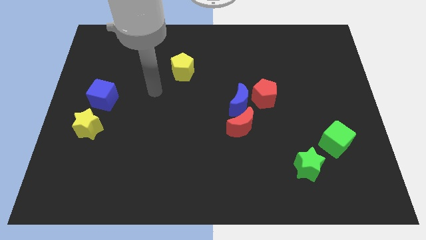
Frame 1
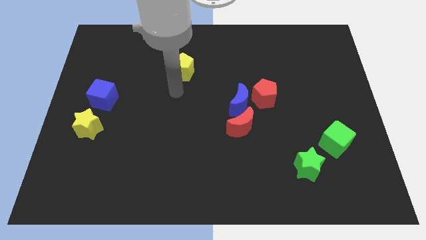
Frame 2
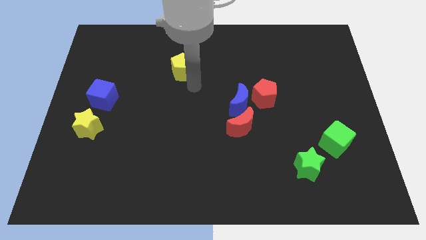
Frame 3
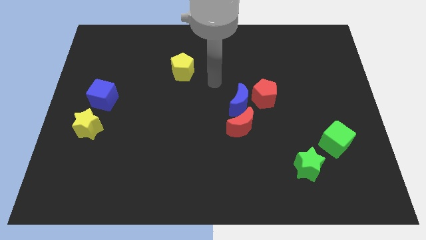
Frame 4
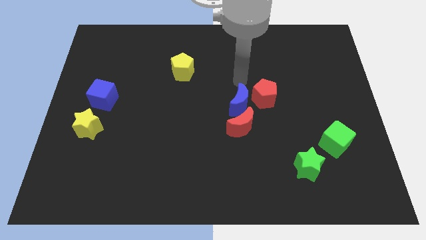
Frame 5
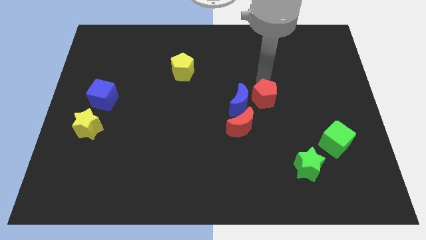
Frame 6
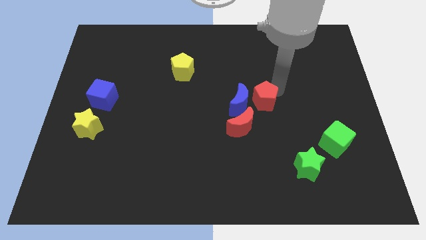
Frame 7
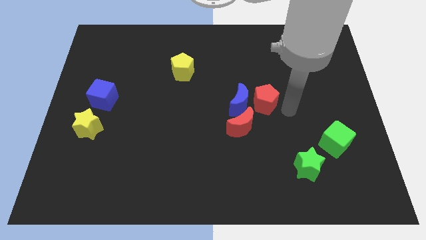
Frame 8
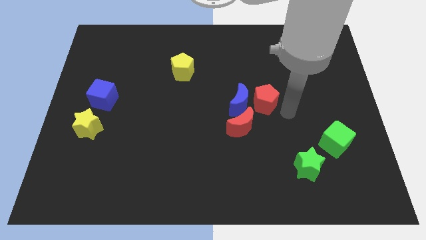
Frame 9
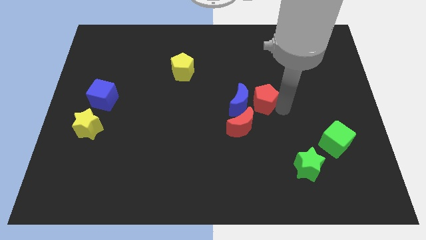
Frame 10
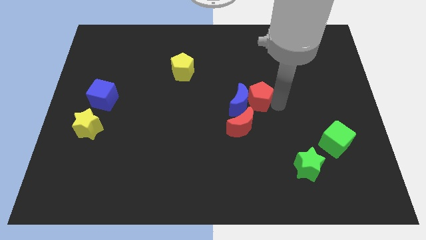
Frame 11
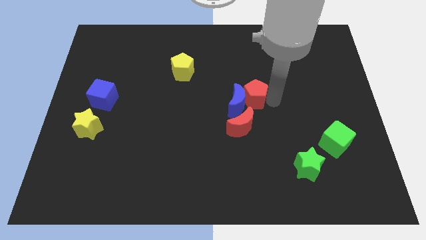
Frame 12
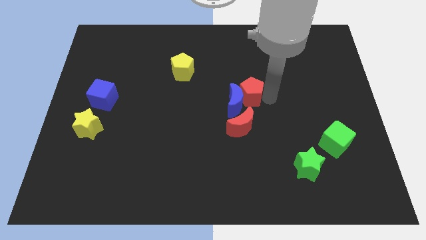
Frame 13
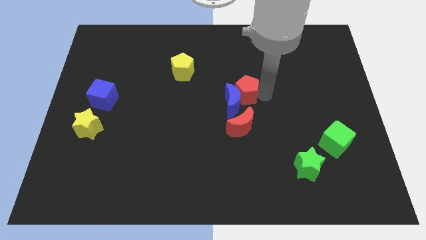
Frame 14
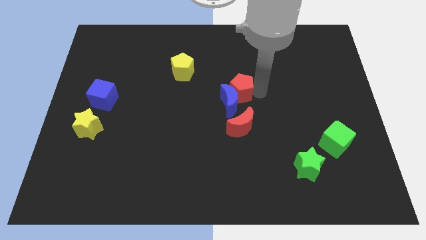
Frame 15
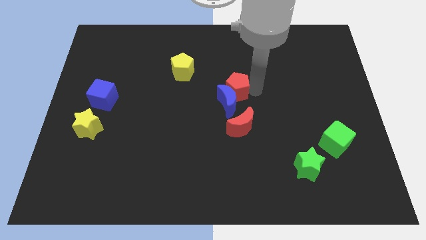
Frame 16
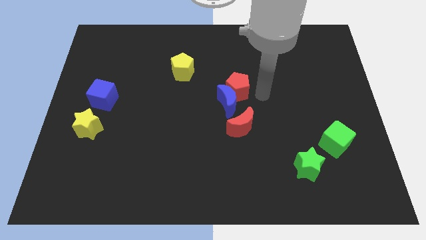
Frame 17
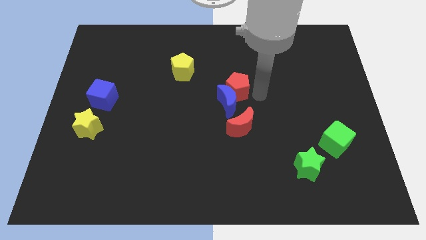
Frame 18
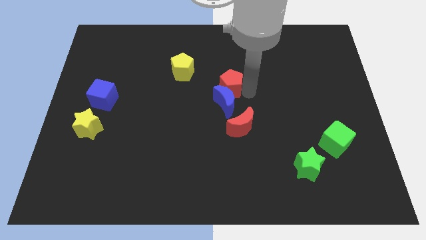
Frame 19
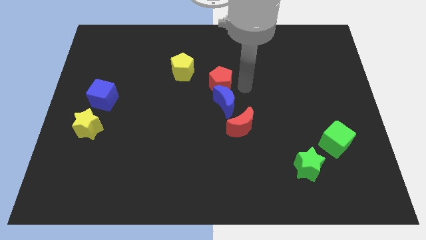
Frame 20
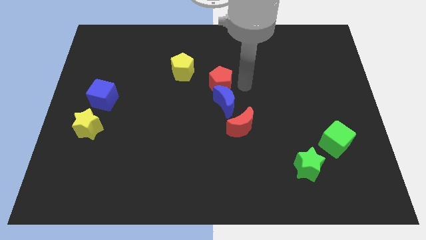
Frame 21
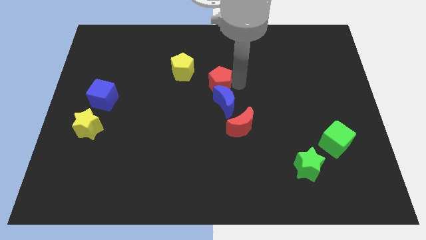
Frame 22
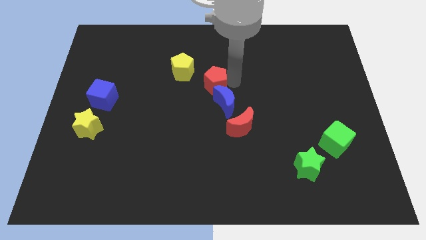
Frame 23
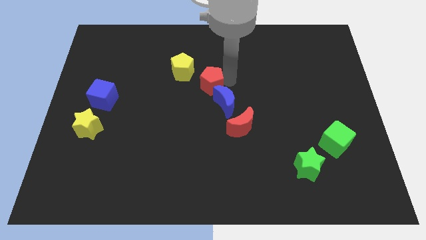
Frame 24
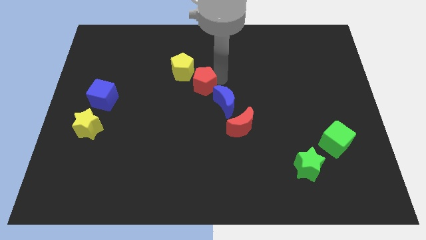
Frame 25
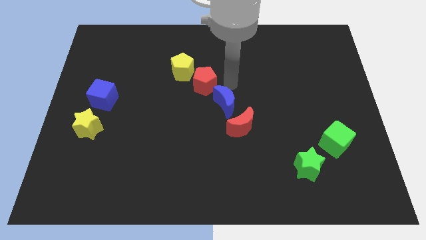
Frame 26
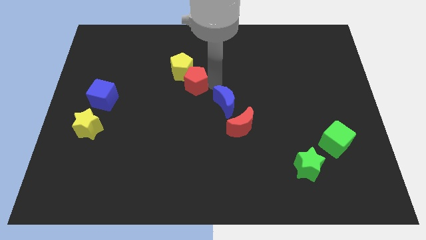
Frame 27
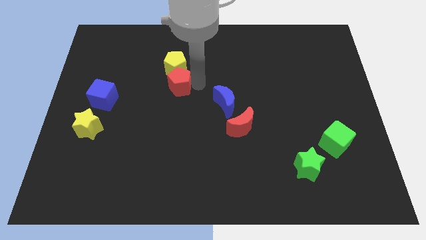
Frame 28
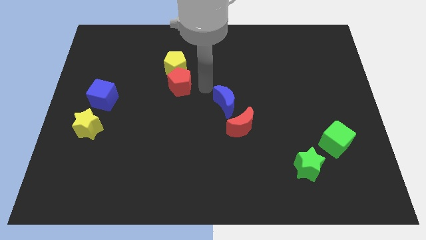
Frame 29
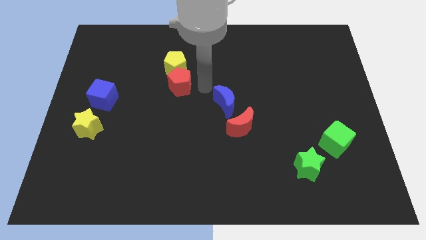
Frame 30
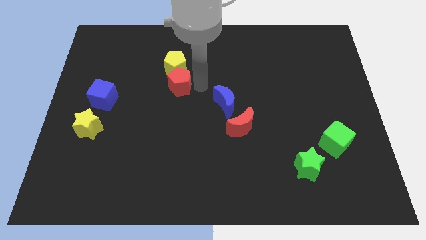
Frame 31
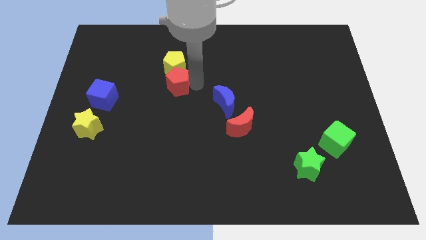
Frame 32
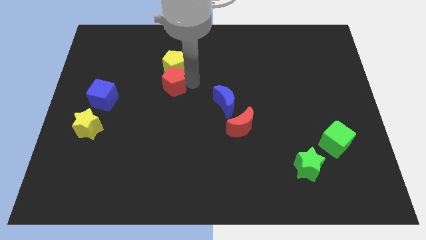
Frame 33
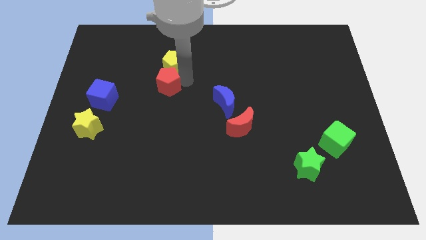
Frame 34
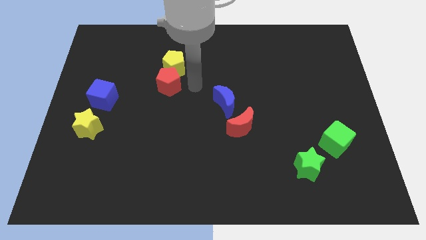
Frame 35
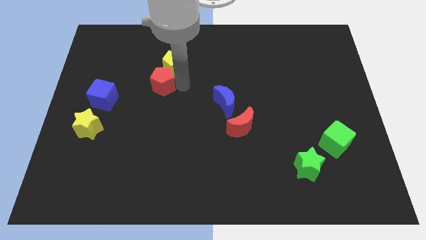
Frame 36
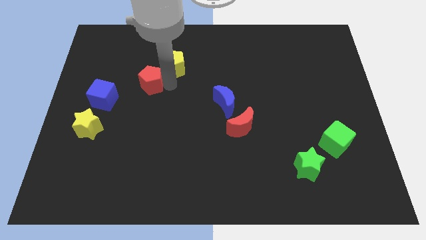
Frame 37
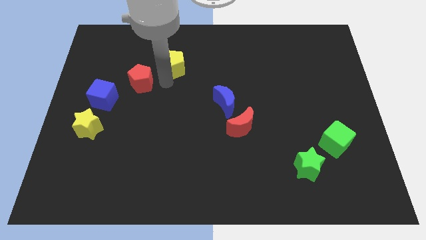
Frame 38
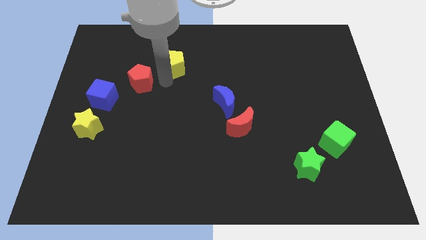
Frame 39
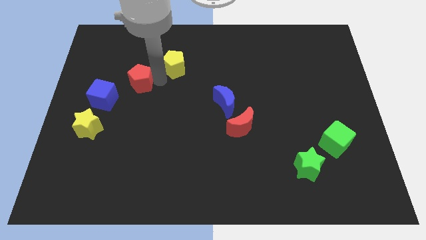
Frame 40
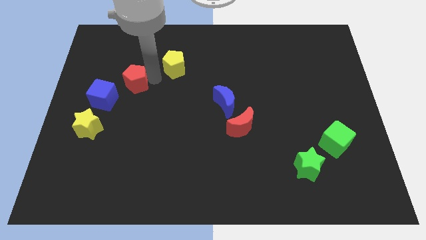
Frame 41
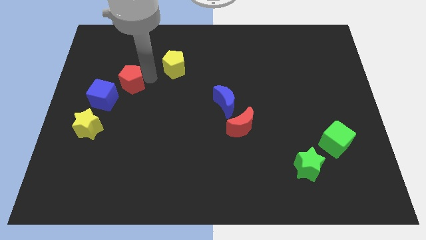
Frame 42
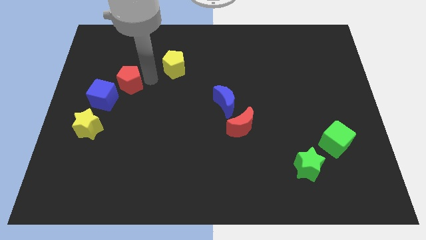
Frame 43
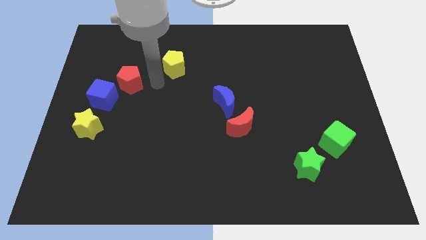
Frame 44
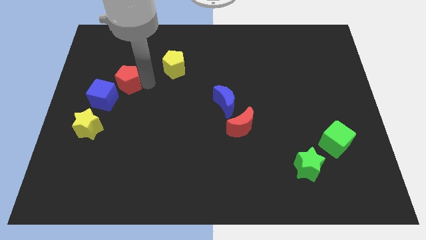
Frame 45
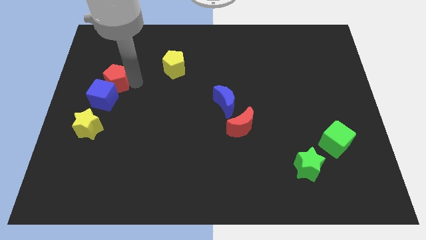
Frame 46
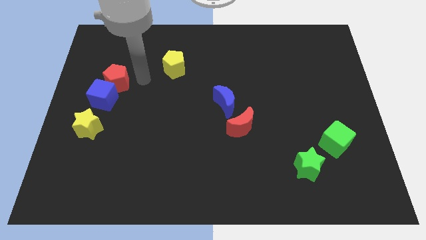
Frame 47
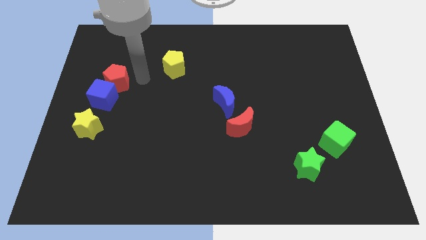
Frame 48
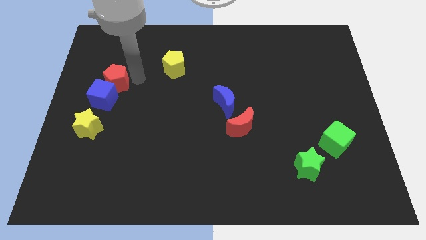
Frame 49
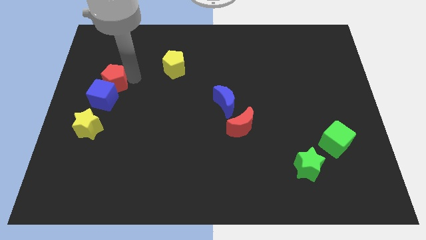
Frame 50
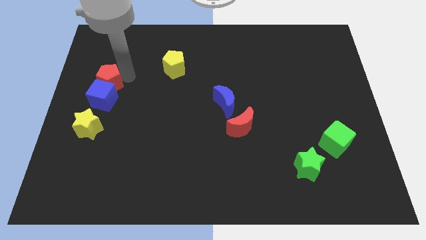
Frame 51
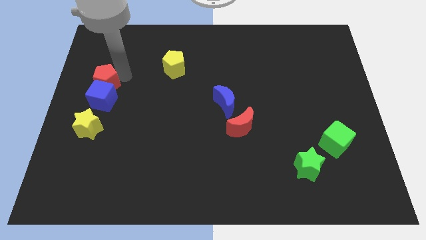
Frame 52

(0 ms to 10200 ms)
move the red pentagon to the left side

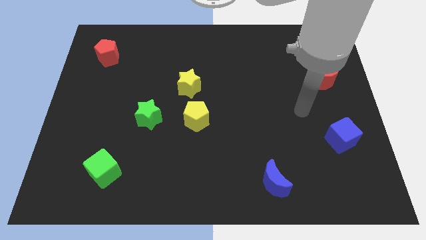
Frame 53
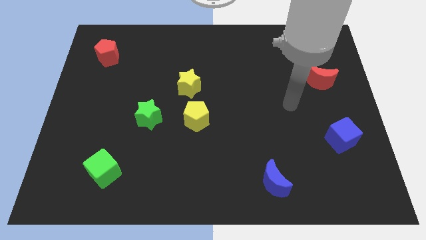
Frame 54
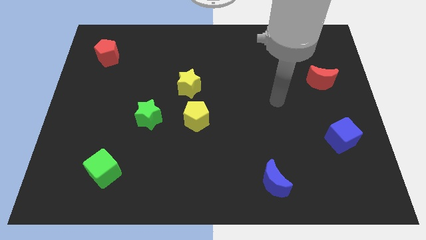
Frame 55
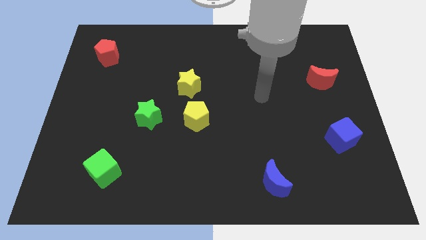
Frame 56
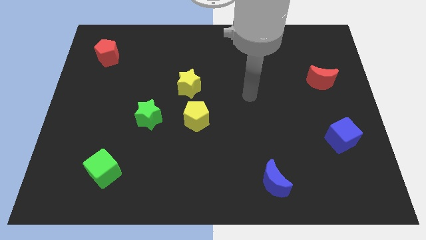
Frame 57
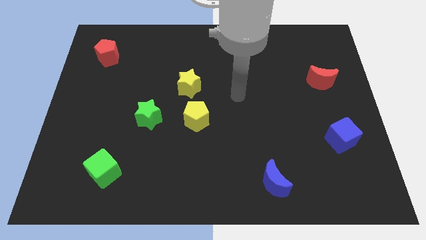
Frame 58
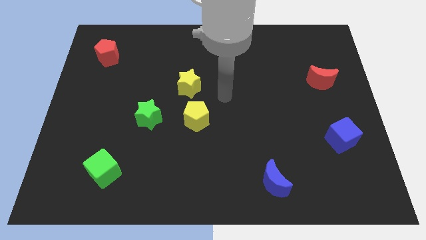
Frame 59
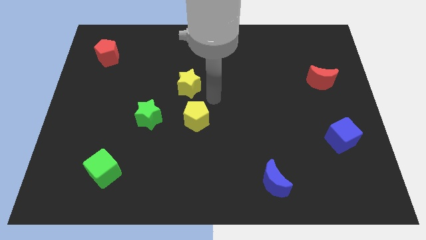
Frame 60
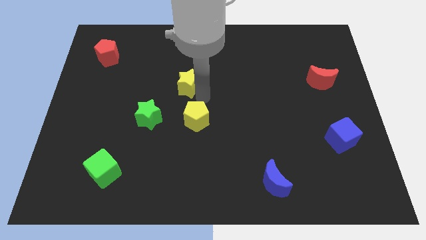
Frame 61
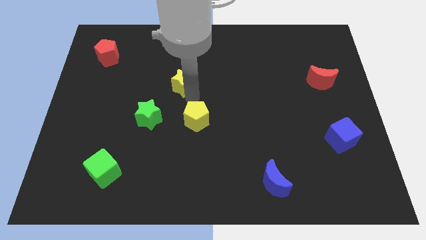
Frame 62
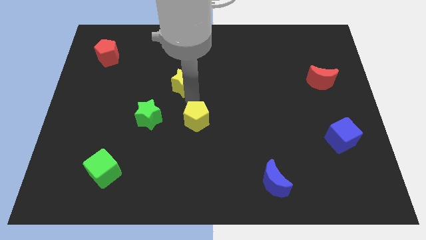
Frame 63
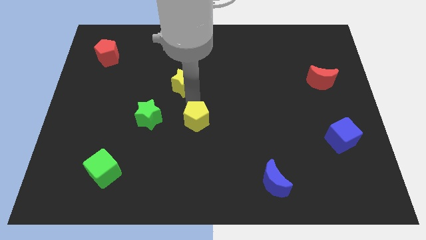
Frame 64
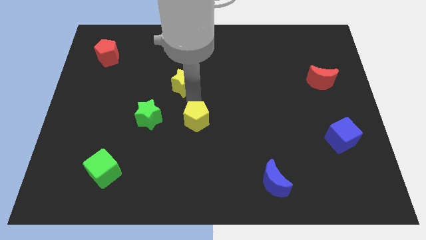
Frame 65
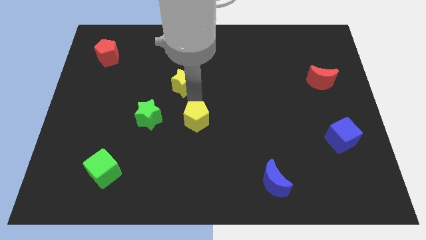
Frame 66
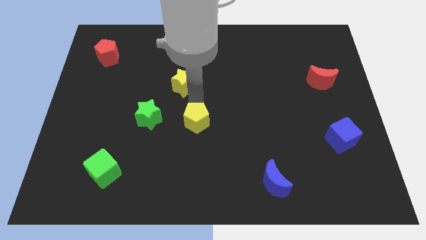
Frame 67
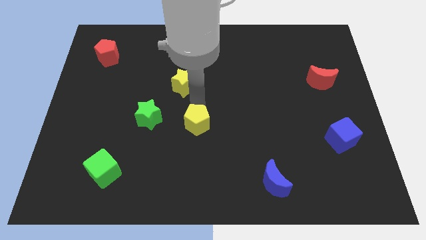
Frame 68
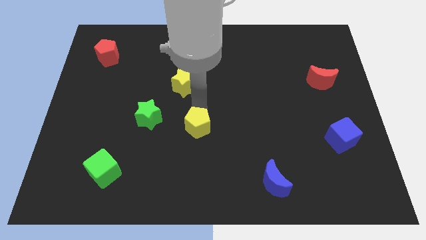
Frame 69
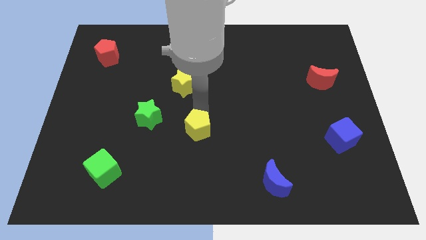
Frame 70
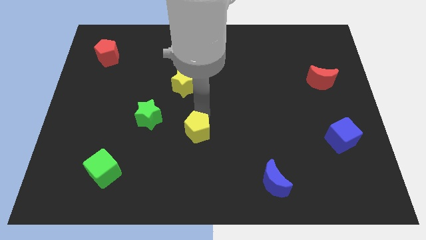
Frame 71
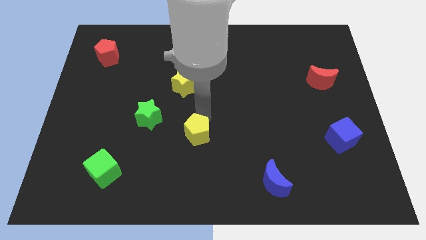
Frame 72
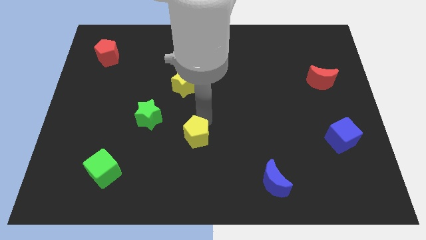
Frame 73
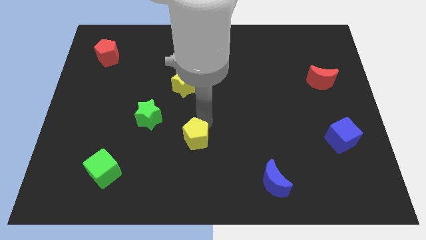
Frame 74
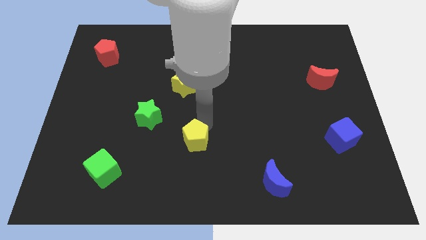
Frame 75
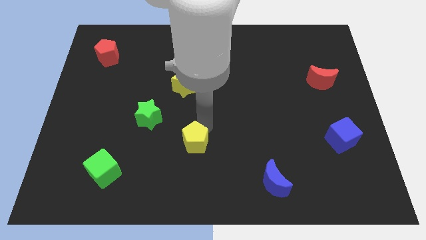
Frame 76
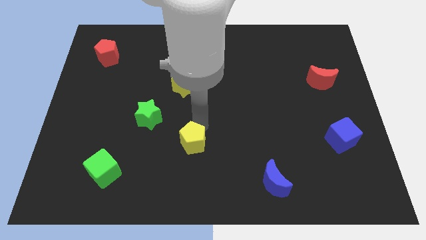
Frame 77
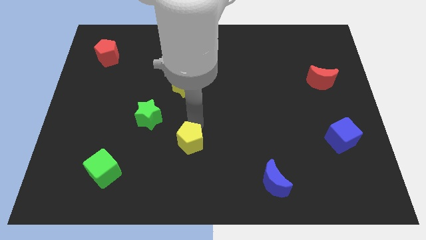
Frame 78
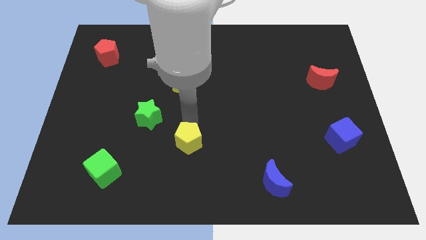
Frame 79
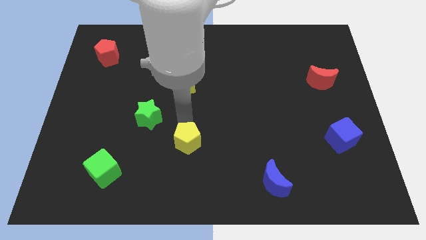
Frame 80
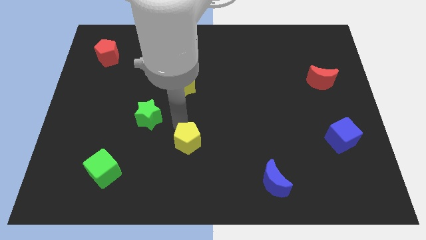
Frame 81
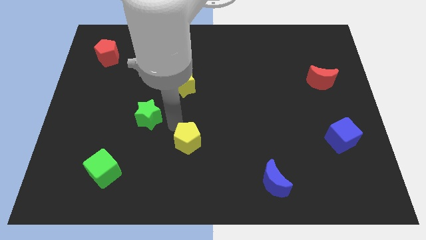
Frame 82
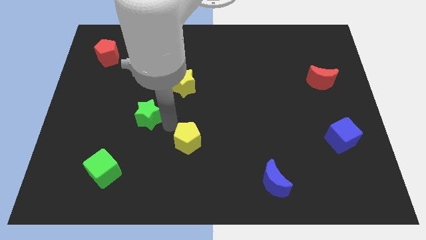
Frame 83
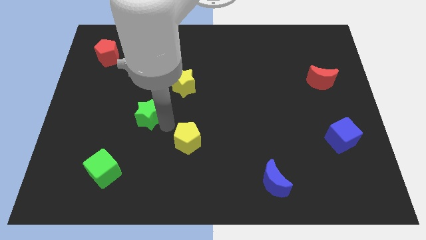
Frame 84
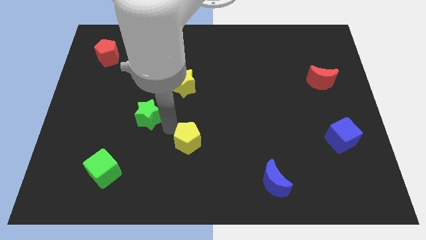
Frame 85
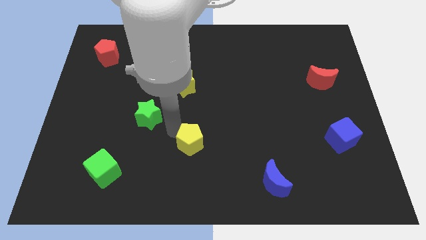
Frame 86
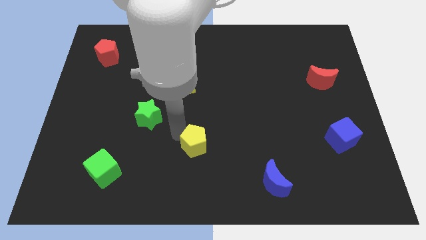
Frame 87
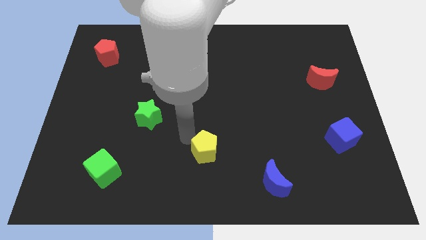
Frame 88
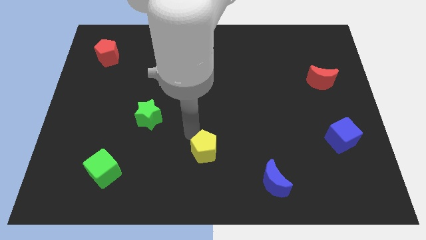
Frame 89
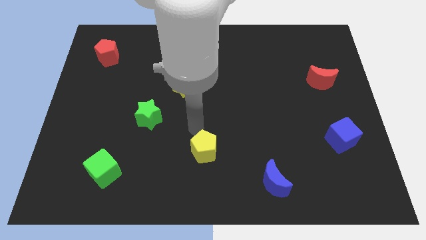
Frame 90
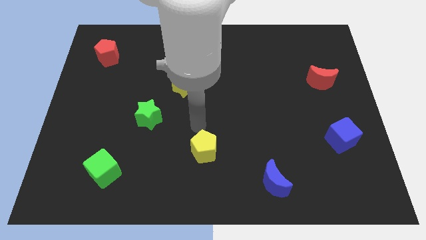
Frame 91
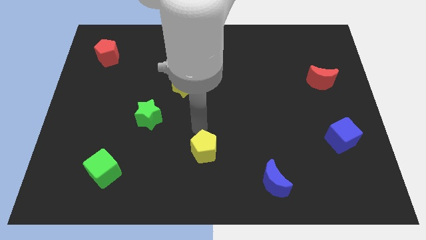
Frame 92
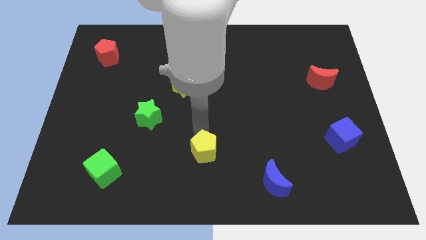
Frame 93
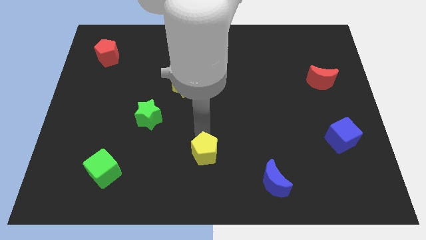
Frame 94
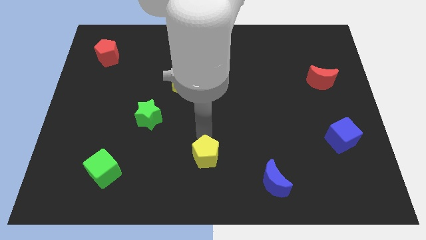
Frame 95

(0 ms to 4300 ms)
slide the yellow pentagon to the bottom side
